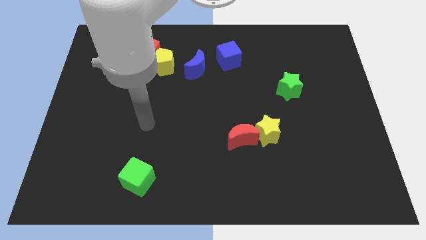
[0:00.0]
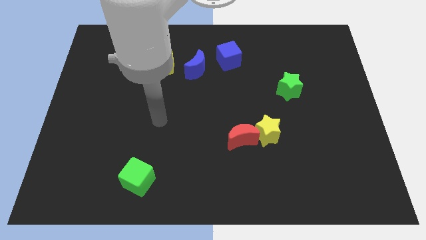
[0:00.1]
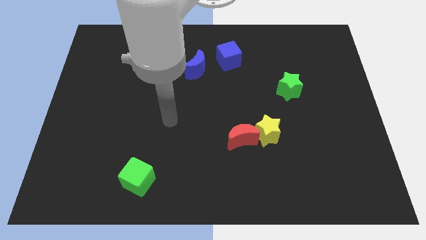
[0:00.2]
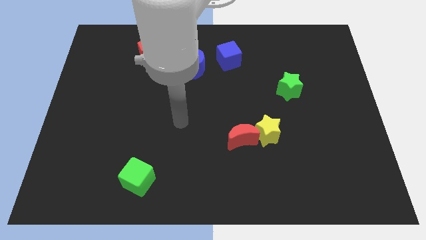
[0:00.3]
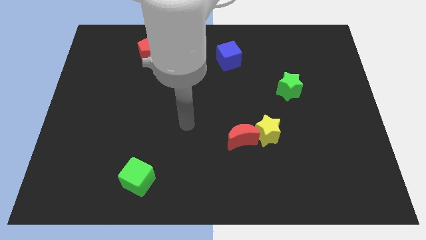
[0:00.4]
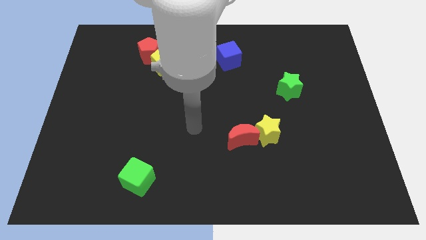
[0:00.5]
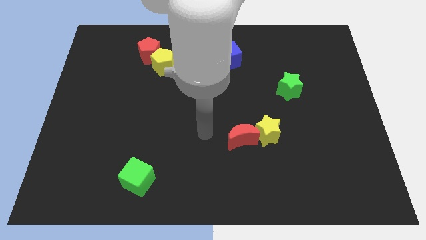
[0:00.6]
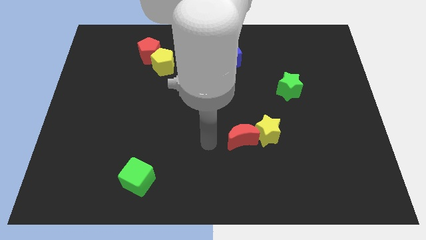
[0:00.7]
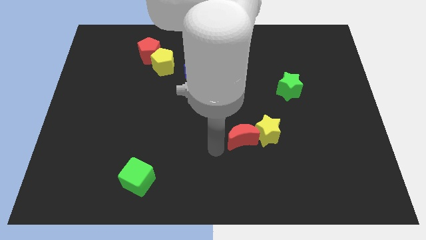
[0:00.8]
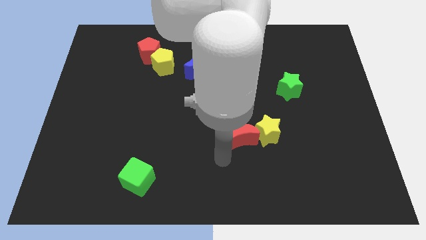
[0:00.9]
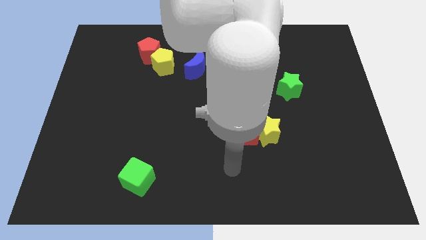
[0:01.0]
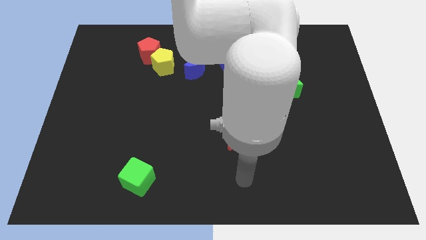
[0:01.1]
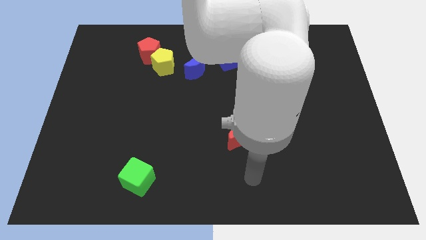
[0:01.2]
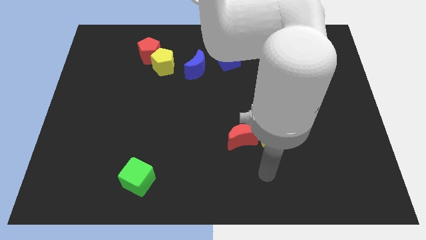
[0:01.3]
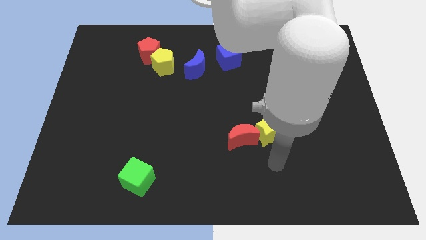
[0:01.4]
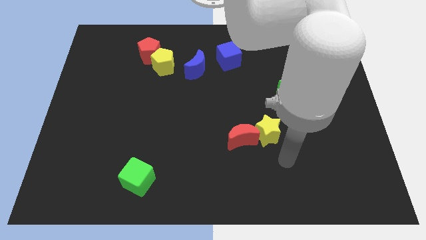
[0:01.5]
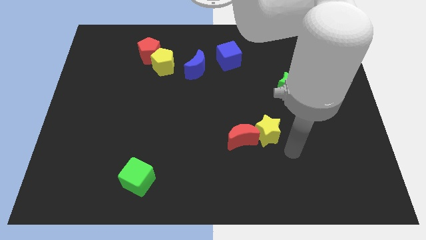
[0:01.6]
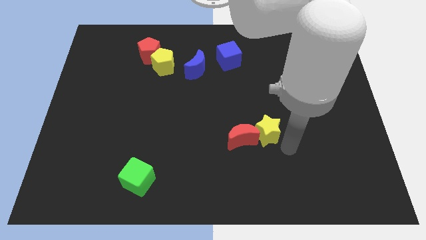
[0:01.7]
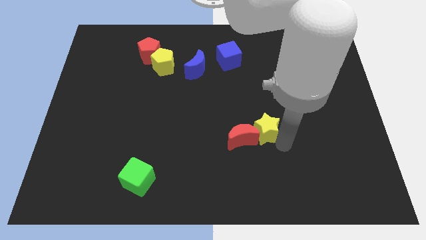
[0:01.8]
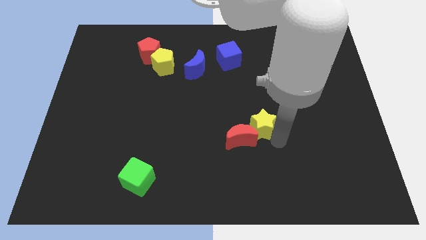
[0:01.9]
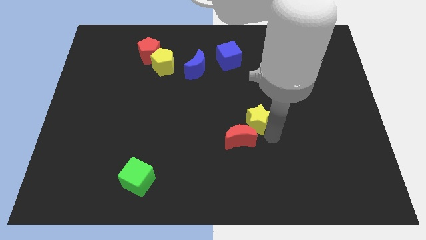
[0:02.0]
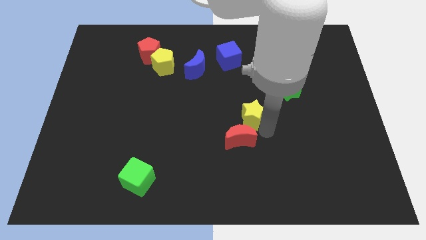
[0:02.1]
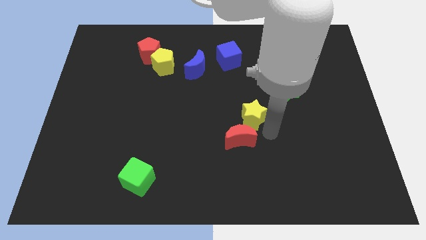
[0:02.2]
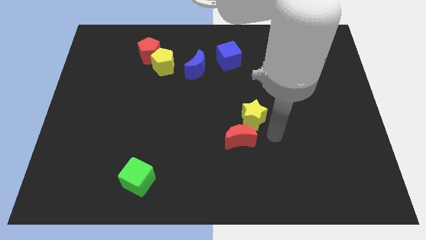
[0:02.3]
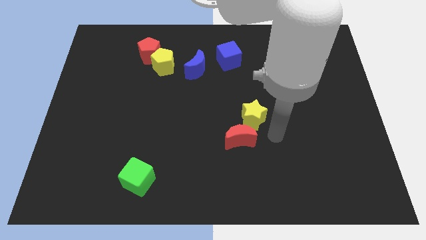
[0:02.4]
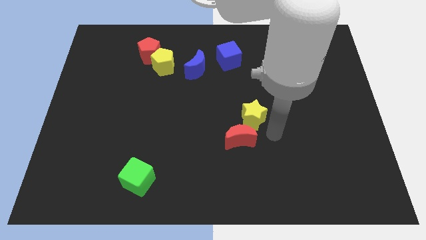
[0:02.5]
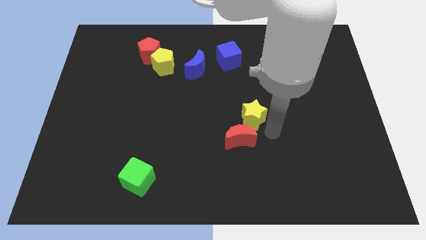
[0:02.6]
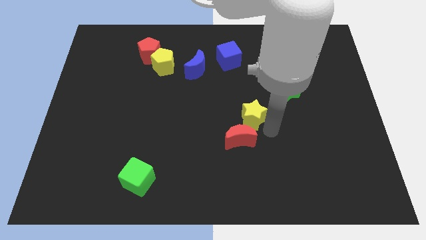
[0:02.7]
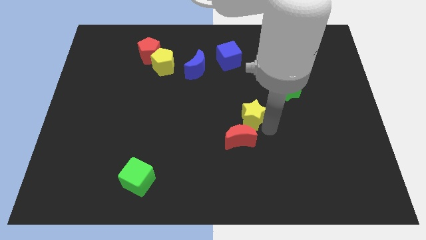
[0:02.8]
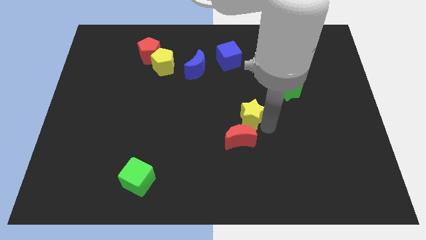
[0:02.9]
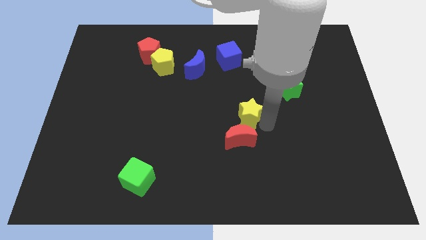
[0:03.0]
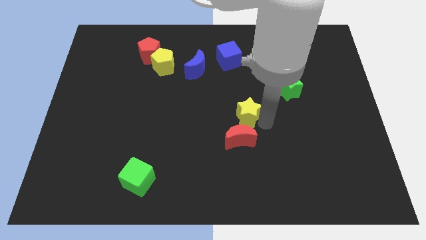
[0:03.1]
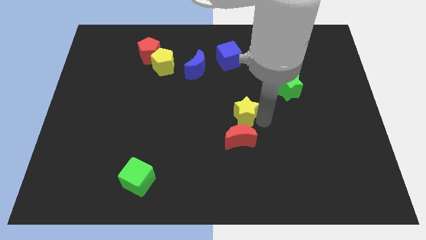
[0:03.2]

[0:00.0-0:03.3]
push the yellow star up and left diagonally somewhat

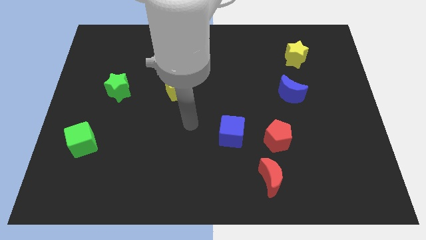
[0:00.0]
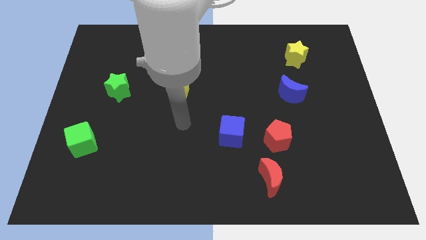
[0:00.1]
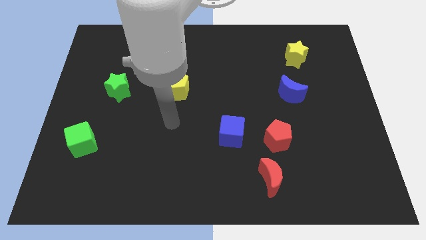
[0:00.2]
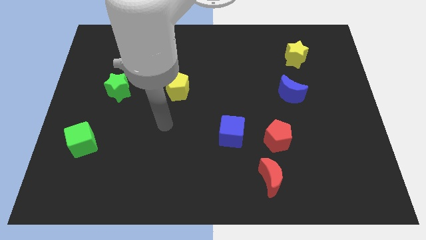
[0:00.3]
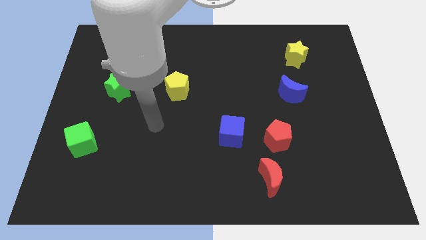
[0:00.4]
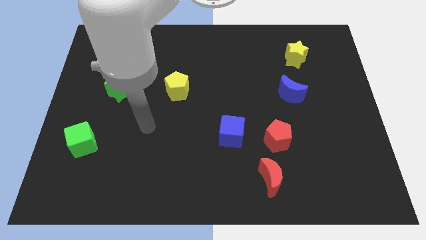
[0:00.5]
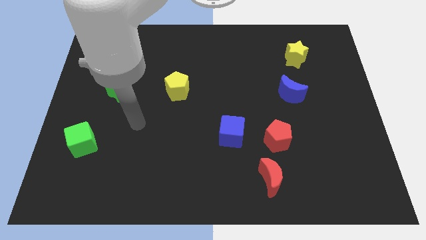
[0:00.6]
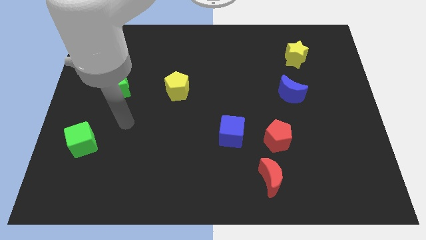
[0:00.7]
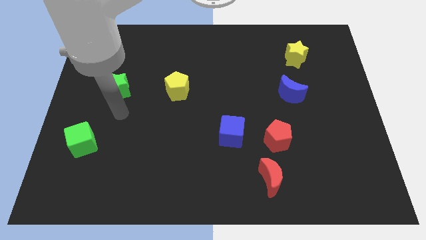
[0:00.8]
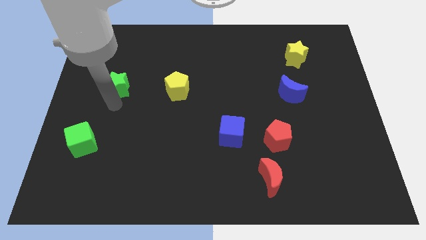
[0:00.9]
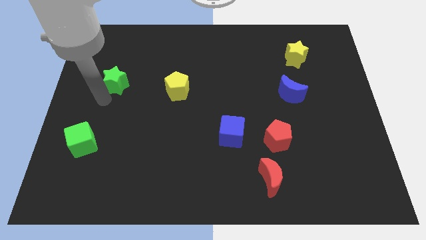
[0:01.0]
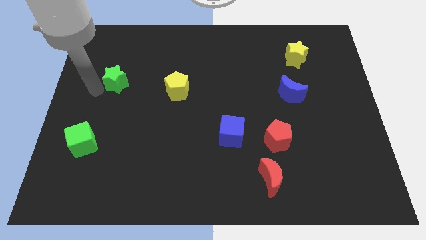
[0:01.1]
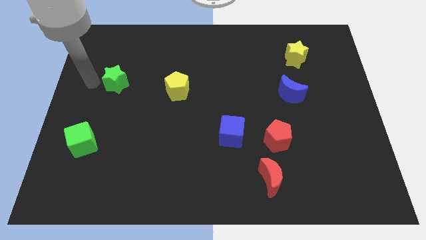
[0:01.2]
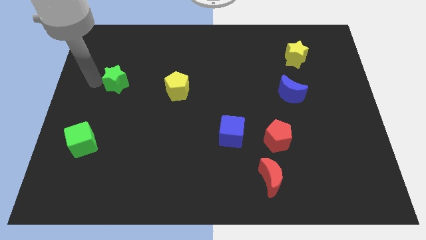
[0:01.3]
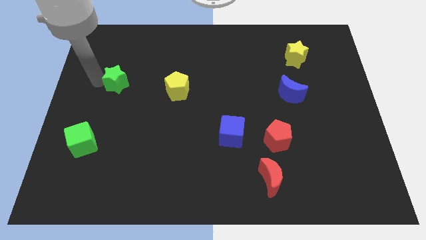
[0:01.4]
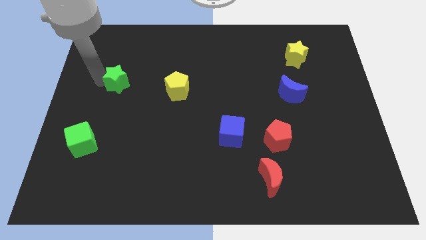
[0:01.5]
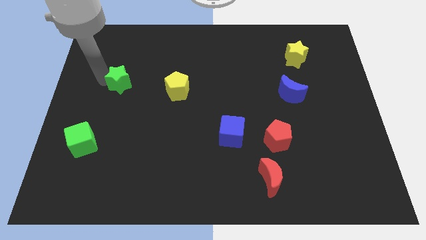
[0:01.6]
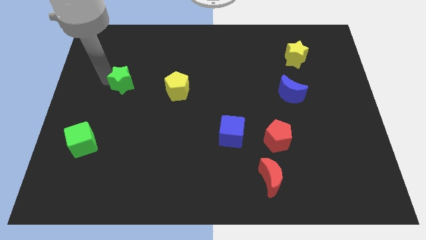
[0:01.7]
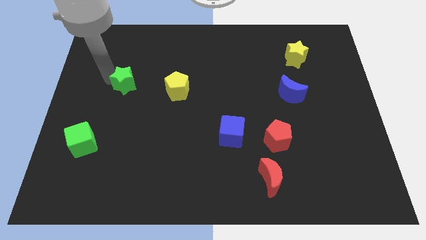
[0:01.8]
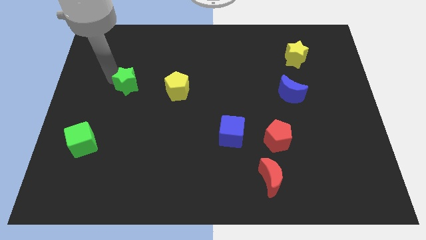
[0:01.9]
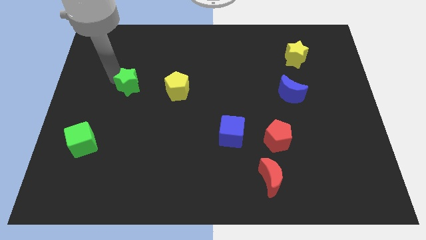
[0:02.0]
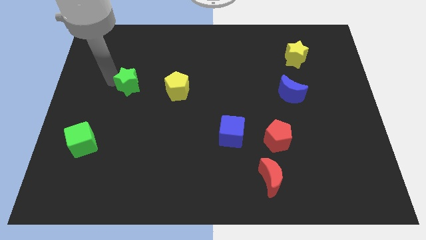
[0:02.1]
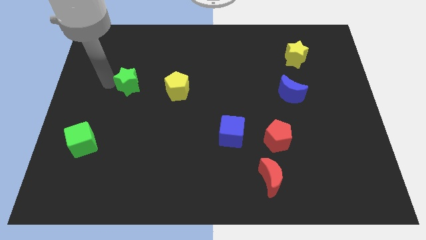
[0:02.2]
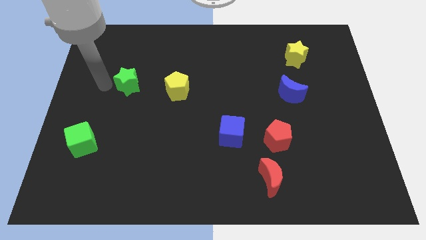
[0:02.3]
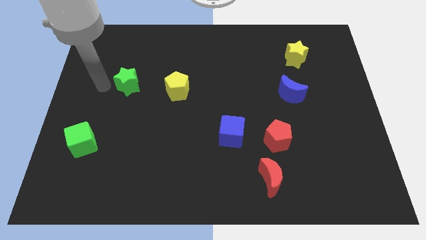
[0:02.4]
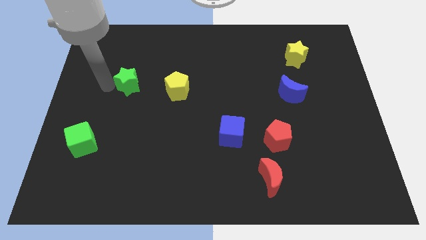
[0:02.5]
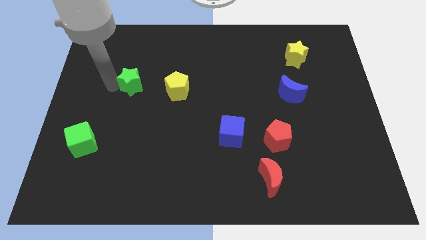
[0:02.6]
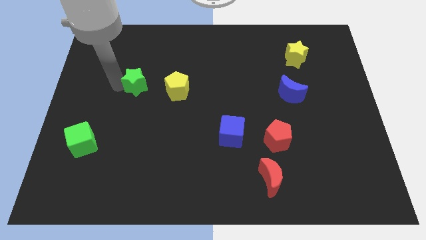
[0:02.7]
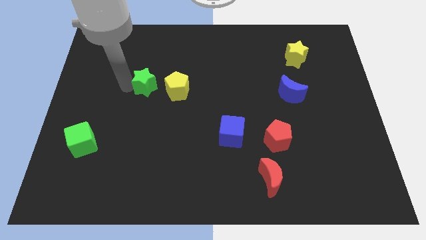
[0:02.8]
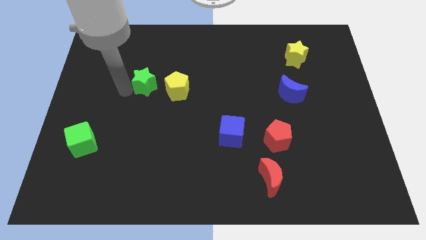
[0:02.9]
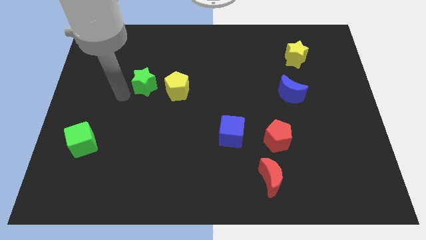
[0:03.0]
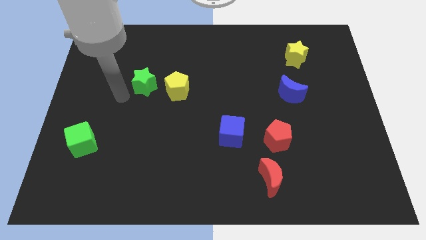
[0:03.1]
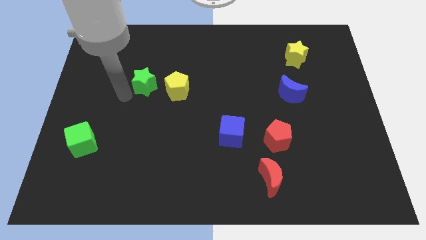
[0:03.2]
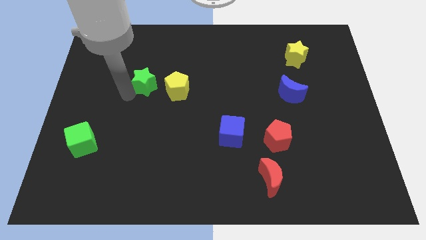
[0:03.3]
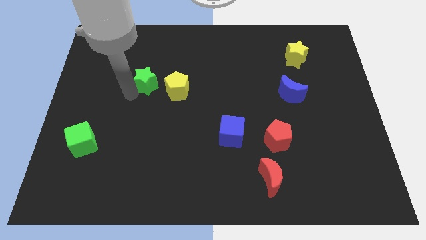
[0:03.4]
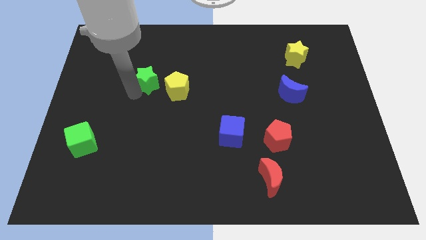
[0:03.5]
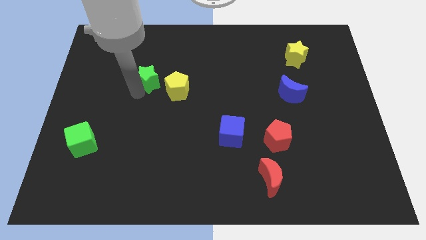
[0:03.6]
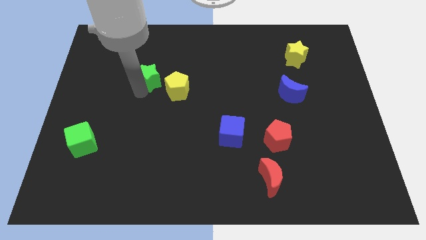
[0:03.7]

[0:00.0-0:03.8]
push the green star right a bit

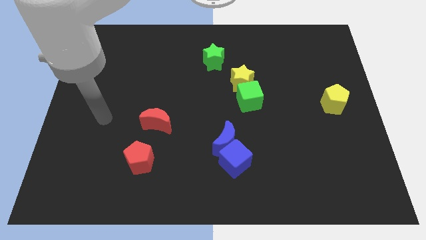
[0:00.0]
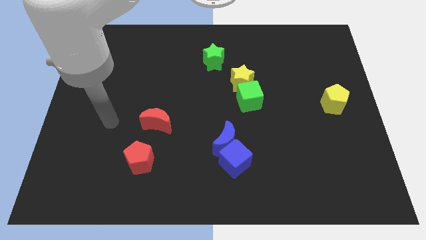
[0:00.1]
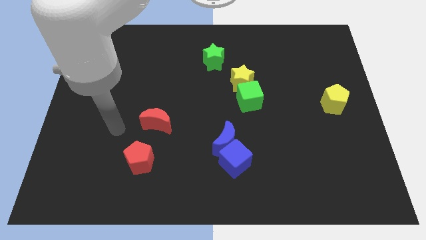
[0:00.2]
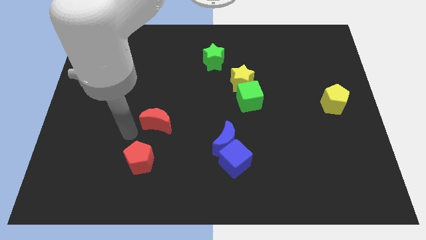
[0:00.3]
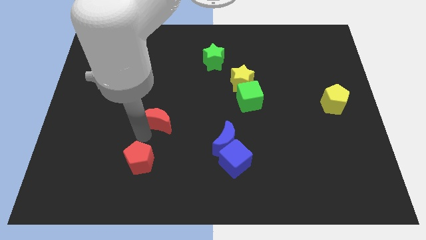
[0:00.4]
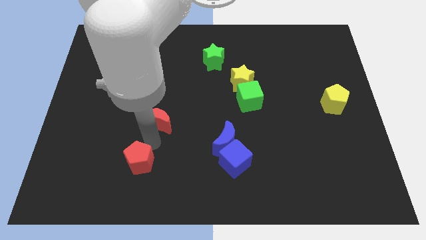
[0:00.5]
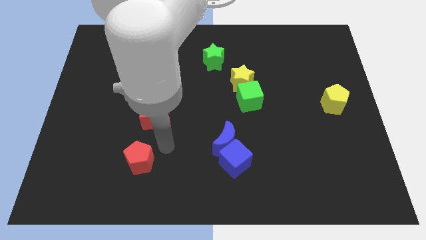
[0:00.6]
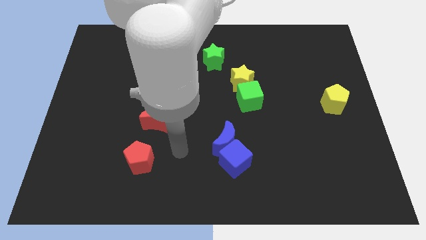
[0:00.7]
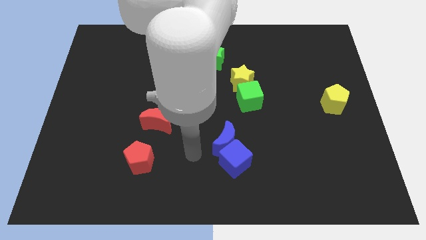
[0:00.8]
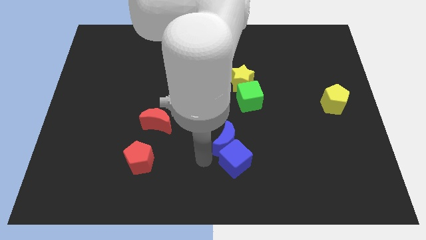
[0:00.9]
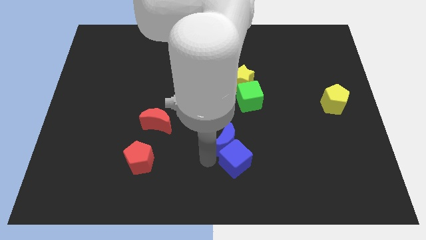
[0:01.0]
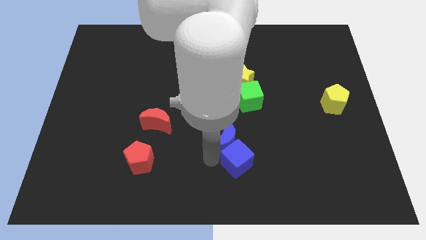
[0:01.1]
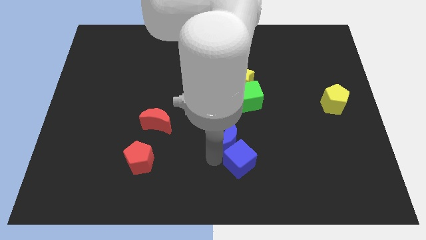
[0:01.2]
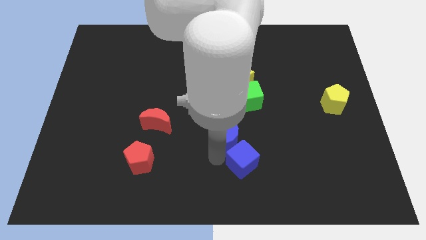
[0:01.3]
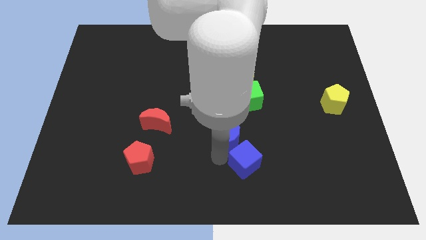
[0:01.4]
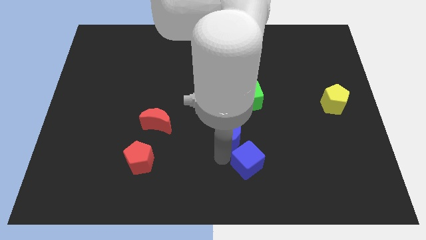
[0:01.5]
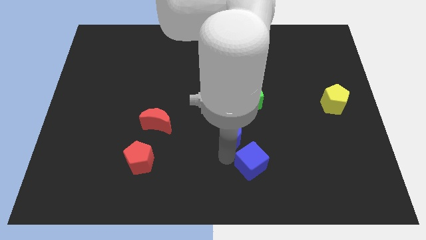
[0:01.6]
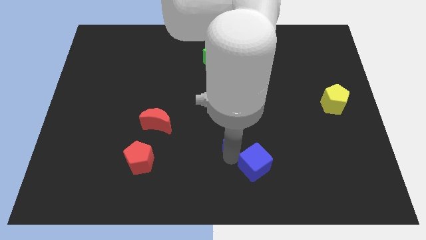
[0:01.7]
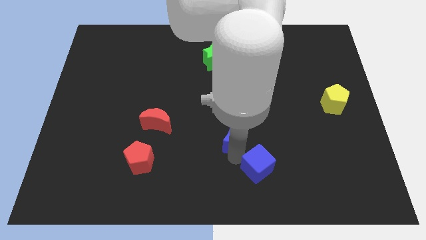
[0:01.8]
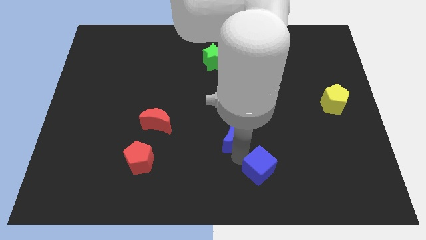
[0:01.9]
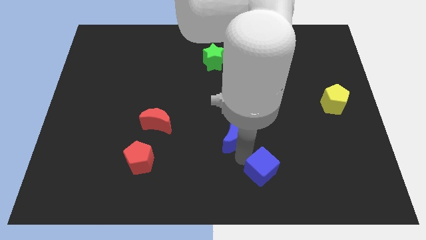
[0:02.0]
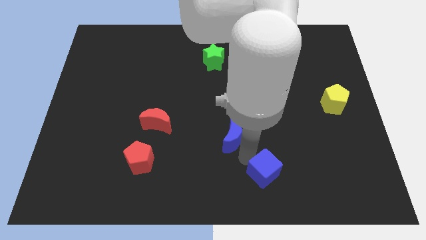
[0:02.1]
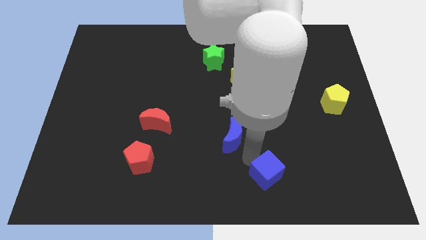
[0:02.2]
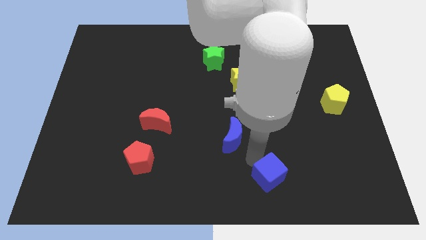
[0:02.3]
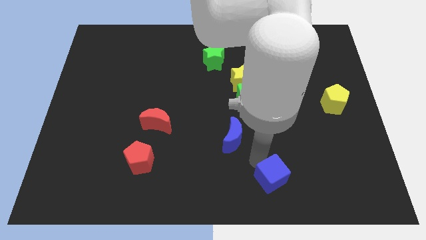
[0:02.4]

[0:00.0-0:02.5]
push the blue cube to the right somewhat
